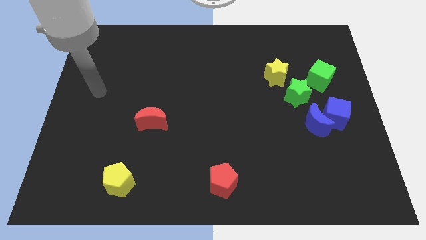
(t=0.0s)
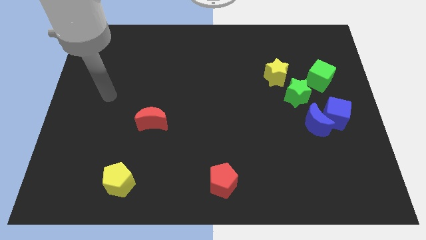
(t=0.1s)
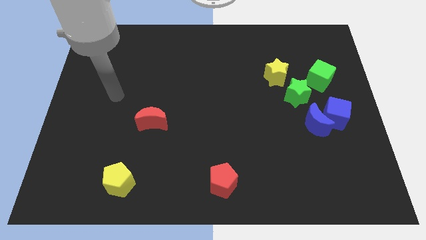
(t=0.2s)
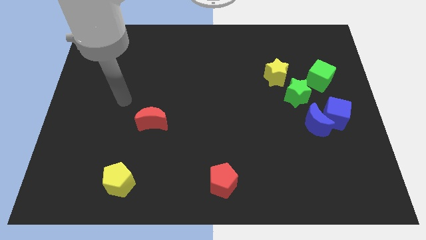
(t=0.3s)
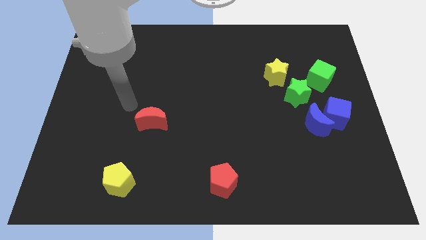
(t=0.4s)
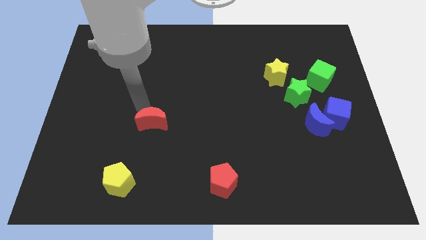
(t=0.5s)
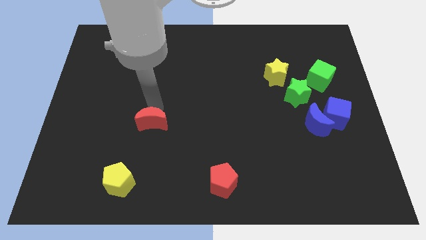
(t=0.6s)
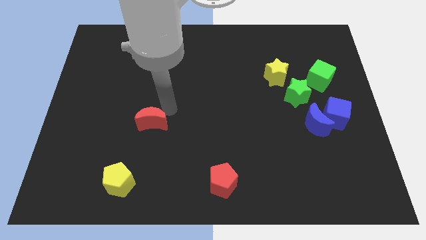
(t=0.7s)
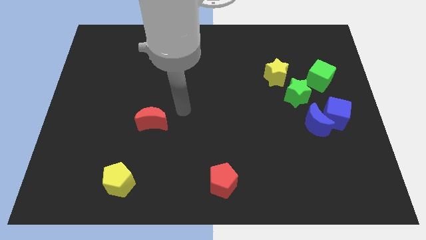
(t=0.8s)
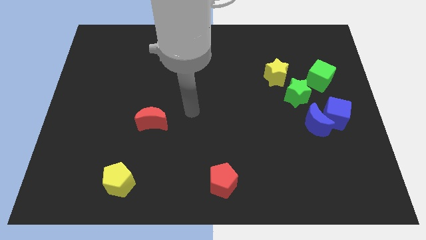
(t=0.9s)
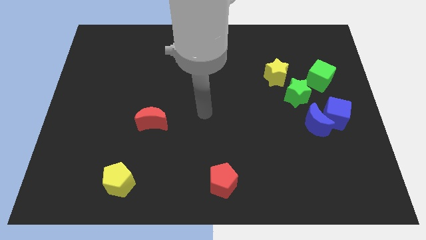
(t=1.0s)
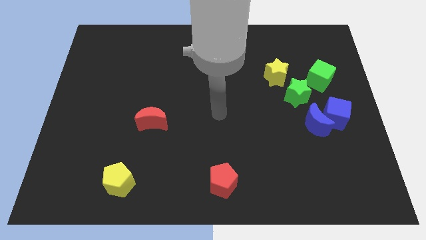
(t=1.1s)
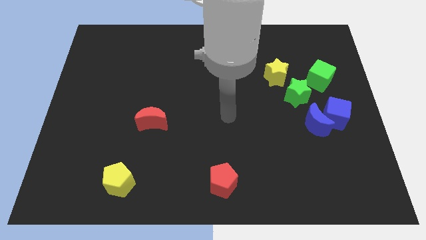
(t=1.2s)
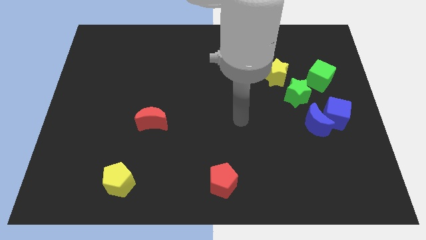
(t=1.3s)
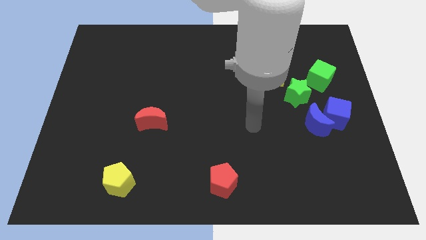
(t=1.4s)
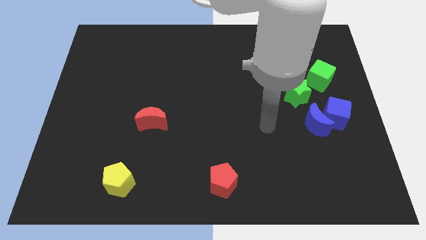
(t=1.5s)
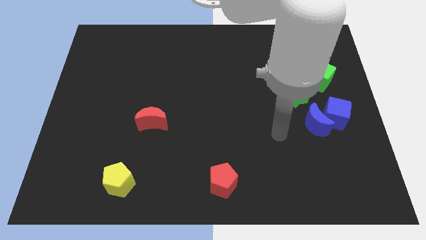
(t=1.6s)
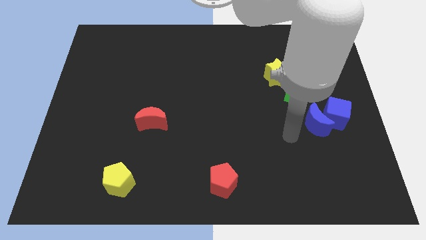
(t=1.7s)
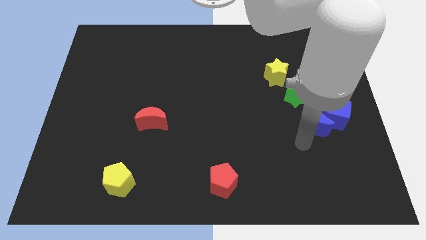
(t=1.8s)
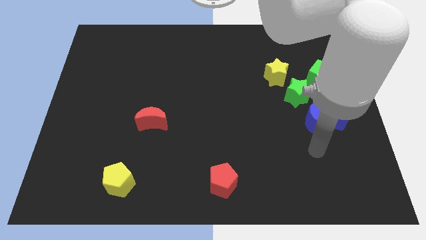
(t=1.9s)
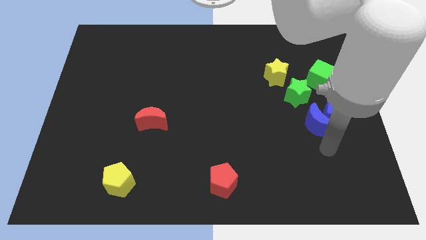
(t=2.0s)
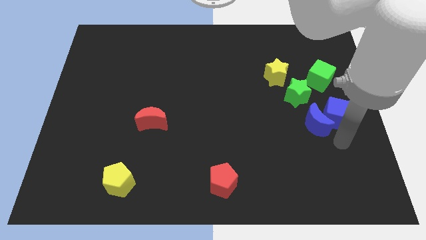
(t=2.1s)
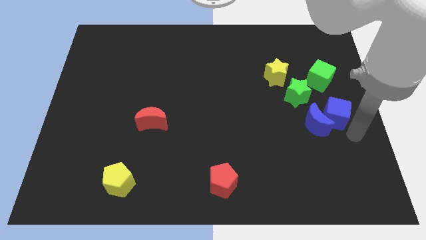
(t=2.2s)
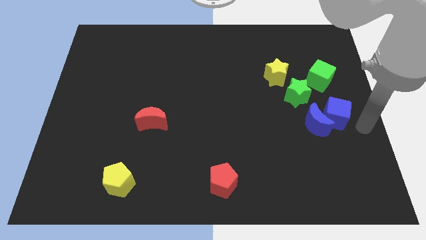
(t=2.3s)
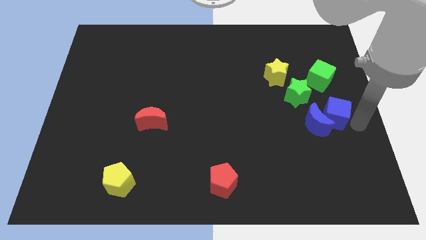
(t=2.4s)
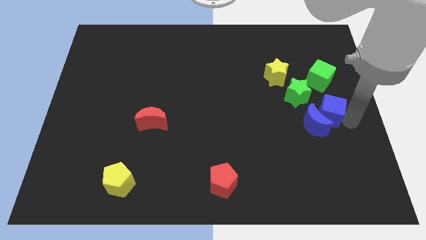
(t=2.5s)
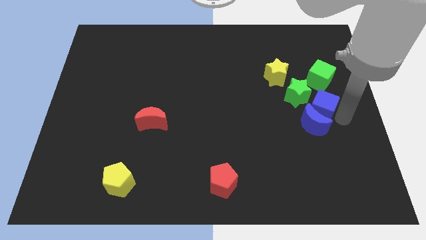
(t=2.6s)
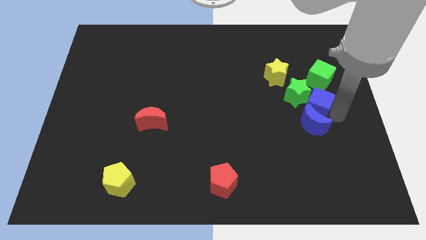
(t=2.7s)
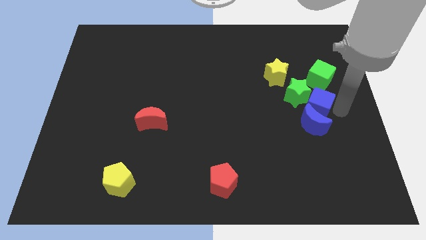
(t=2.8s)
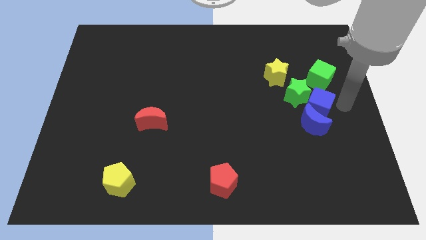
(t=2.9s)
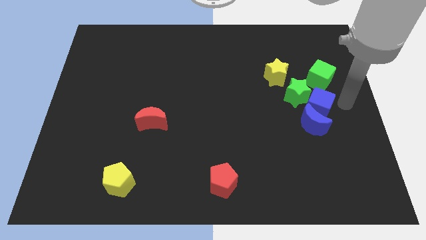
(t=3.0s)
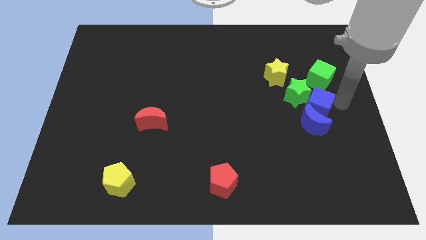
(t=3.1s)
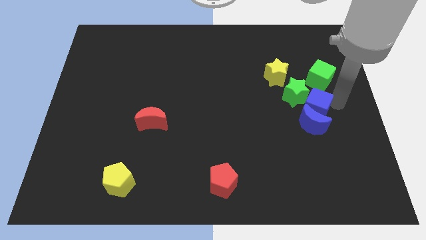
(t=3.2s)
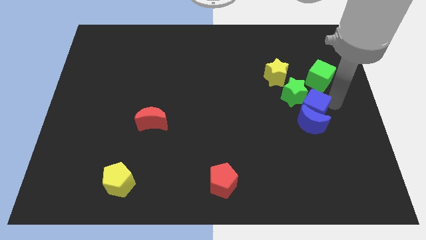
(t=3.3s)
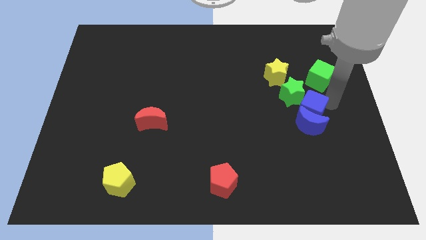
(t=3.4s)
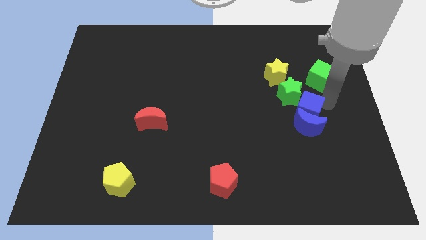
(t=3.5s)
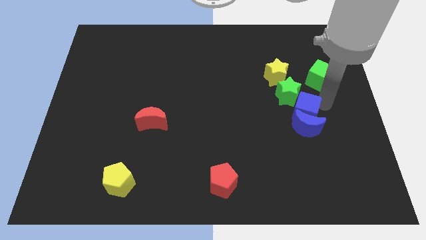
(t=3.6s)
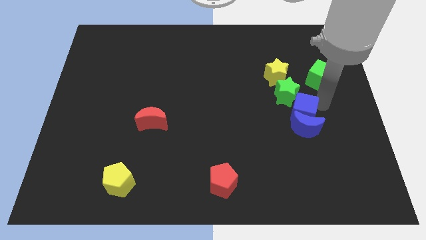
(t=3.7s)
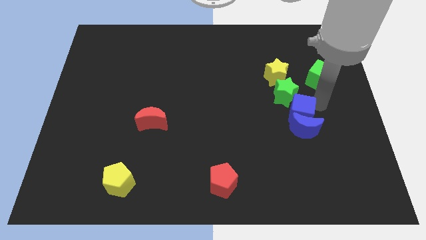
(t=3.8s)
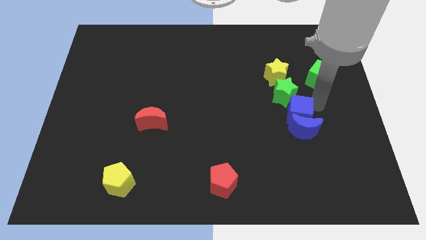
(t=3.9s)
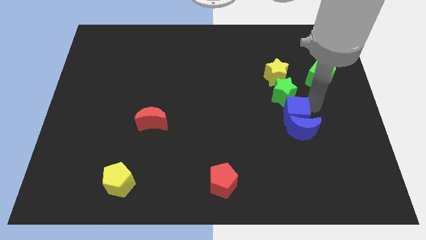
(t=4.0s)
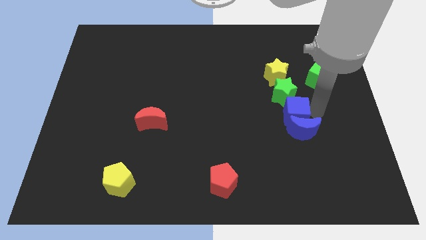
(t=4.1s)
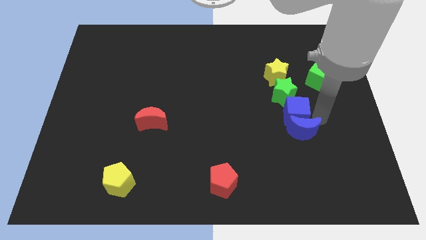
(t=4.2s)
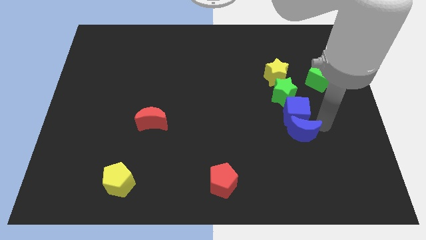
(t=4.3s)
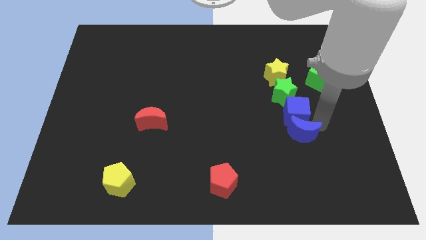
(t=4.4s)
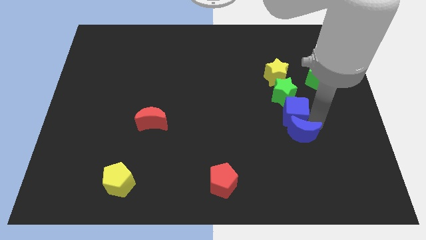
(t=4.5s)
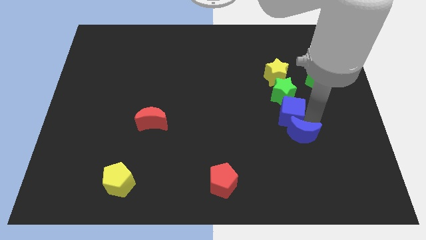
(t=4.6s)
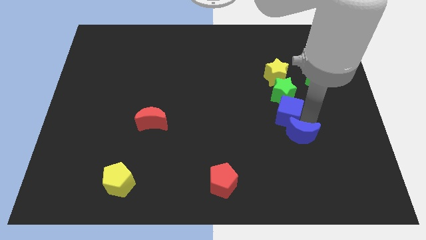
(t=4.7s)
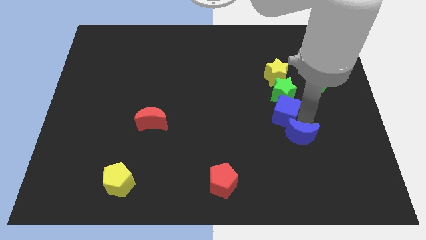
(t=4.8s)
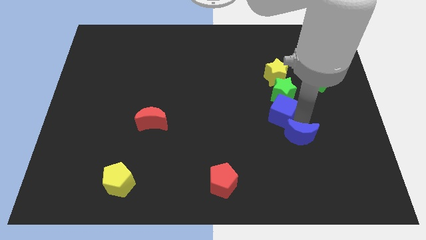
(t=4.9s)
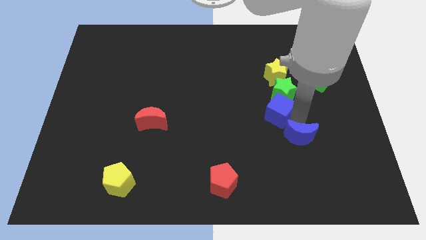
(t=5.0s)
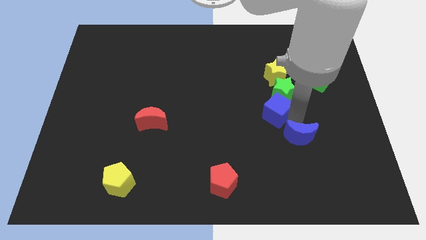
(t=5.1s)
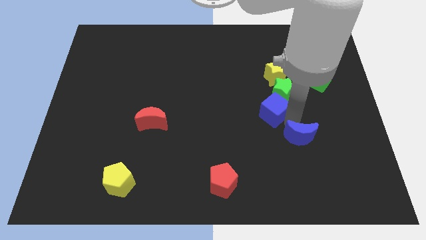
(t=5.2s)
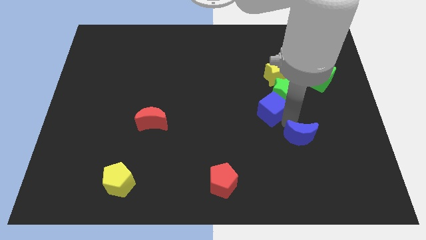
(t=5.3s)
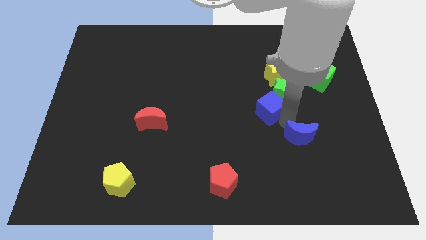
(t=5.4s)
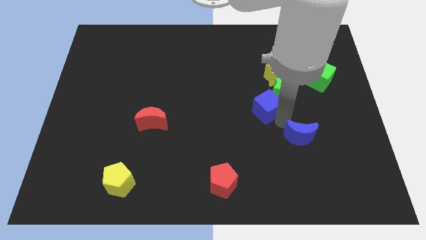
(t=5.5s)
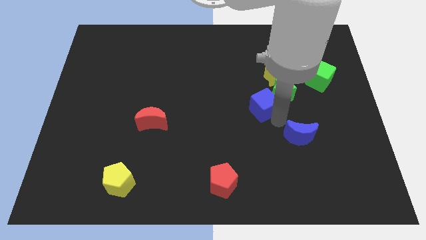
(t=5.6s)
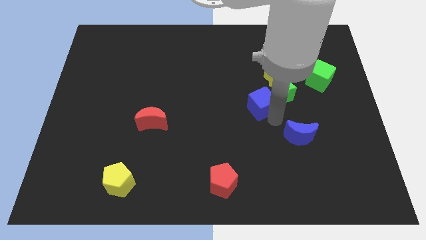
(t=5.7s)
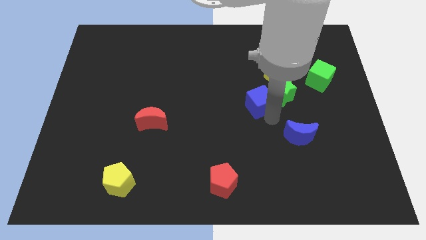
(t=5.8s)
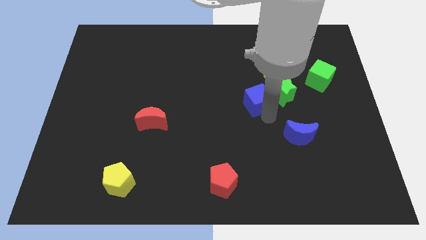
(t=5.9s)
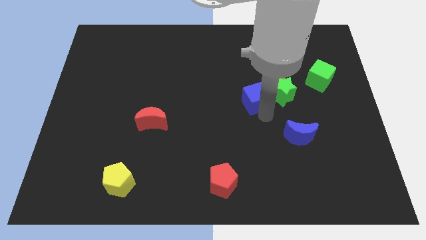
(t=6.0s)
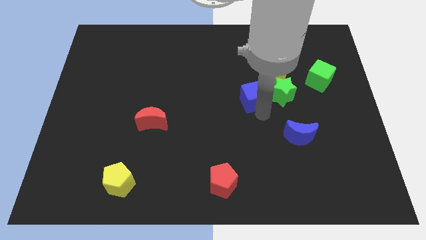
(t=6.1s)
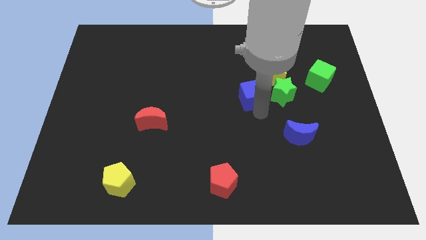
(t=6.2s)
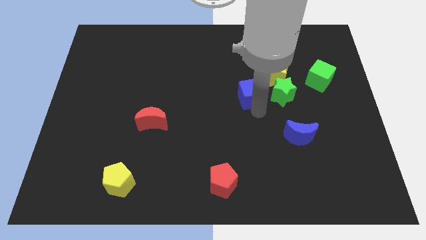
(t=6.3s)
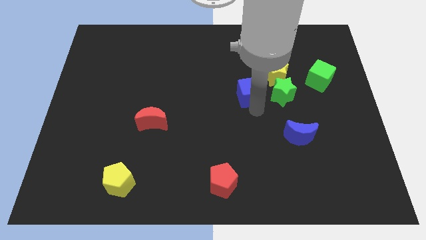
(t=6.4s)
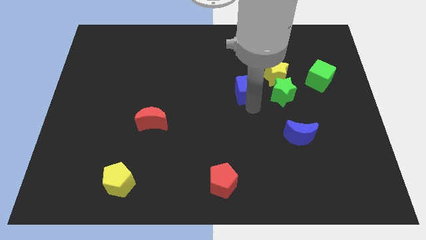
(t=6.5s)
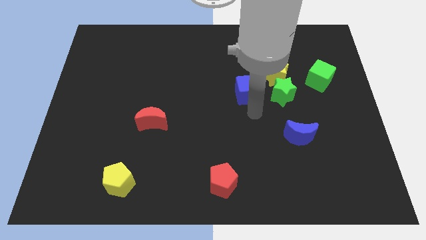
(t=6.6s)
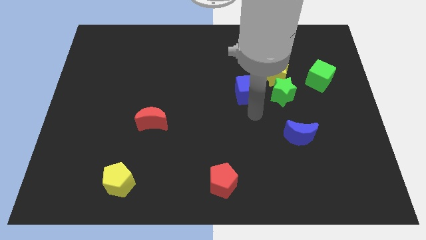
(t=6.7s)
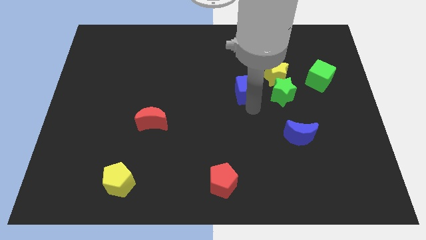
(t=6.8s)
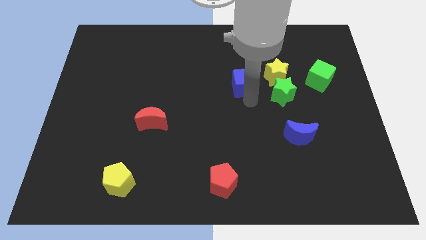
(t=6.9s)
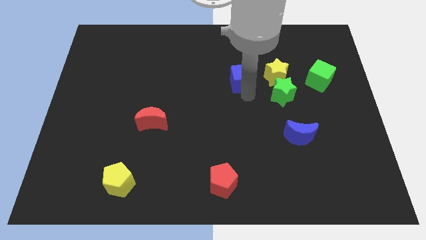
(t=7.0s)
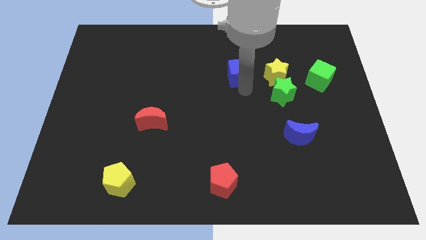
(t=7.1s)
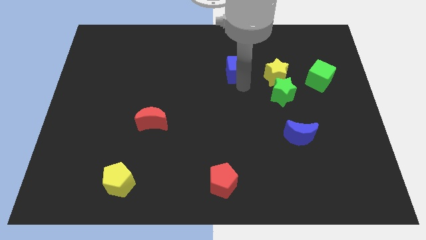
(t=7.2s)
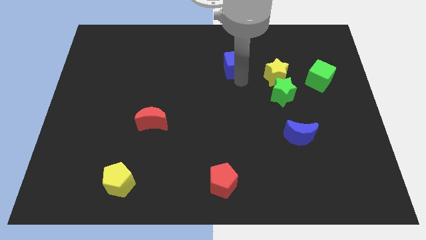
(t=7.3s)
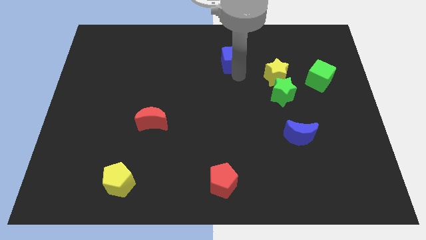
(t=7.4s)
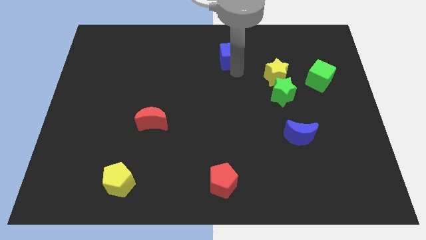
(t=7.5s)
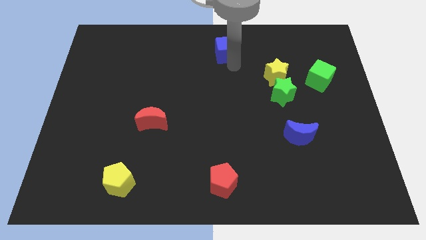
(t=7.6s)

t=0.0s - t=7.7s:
move the blue cube to the top side

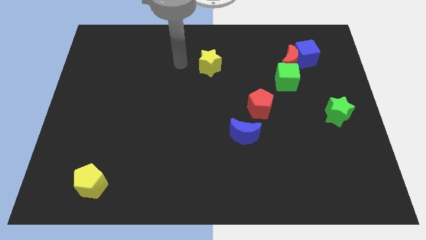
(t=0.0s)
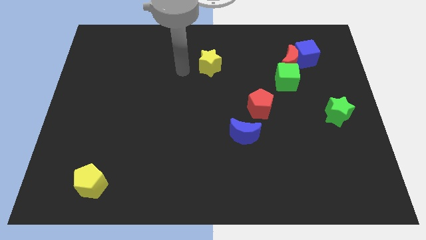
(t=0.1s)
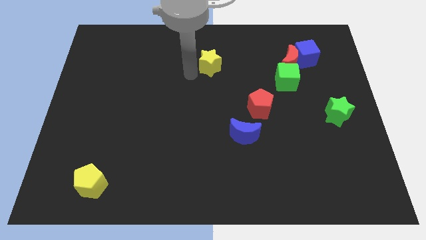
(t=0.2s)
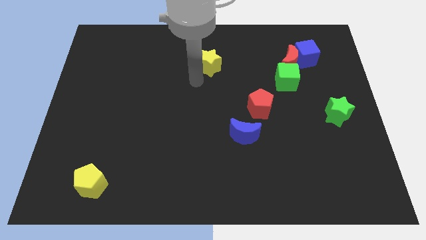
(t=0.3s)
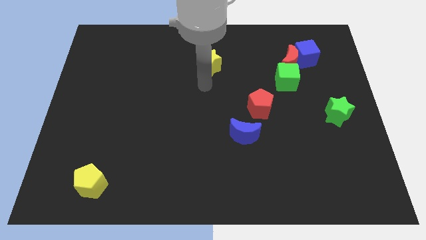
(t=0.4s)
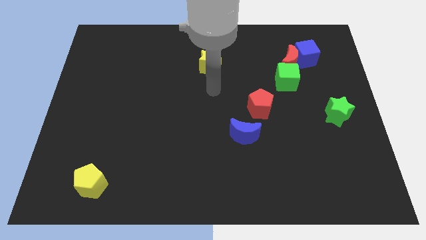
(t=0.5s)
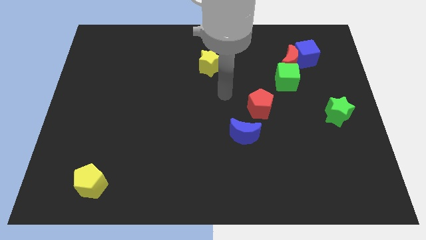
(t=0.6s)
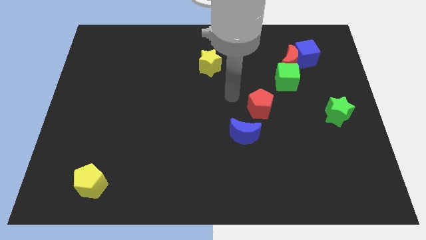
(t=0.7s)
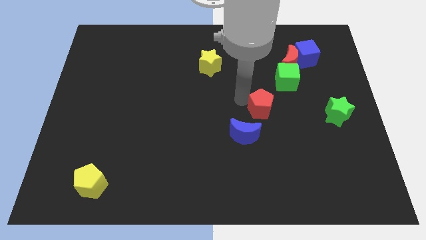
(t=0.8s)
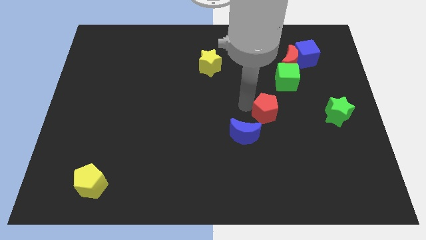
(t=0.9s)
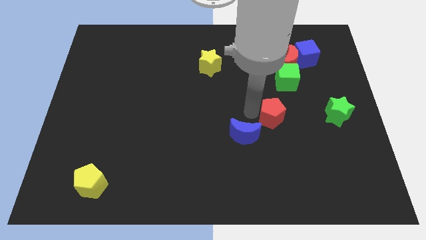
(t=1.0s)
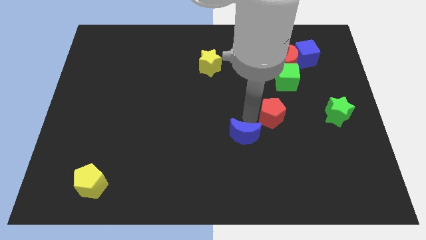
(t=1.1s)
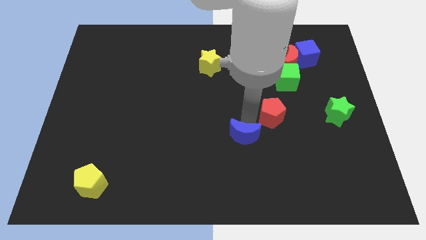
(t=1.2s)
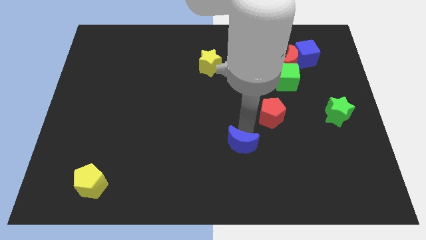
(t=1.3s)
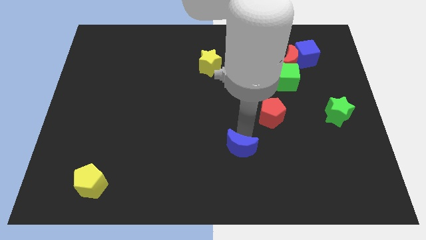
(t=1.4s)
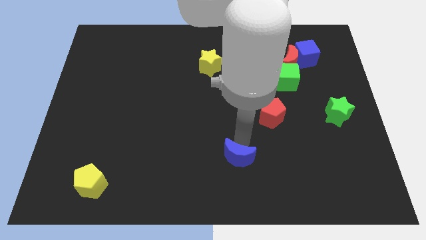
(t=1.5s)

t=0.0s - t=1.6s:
move the blue moon to the bottom
